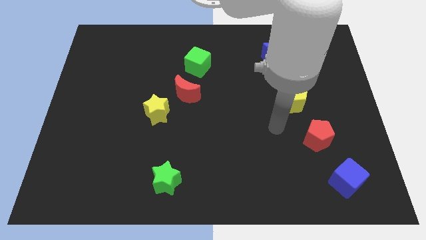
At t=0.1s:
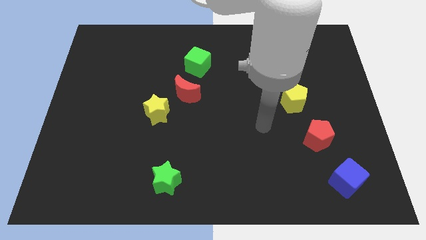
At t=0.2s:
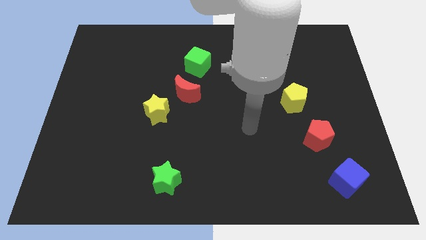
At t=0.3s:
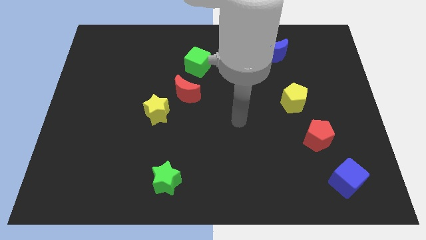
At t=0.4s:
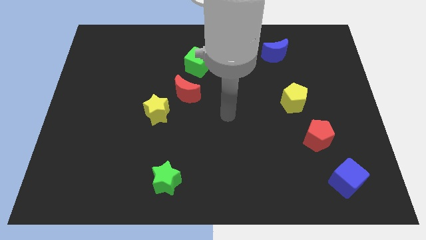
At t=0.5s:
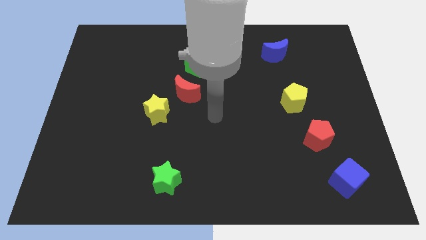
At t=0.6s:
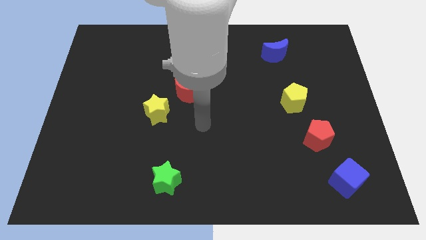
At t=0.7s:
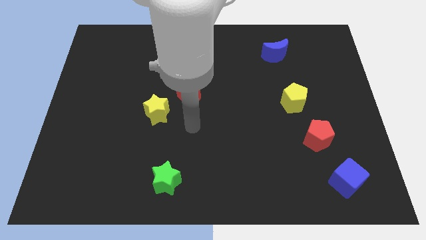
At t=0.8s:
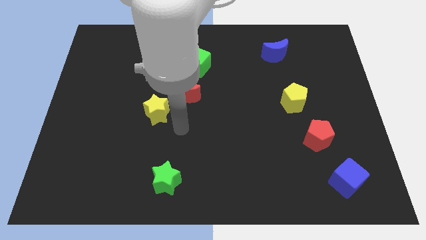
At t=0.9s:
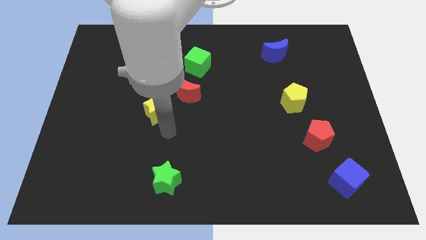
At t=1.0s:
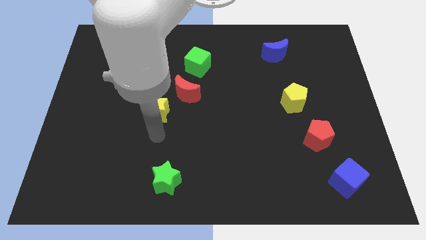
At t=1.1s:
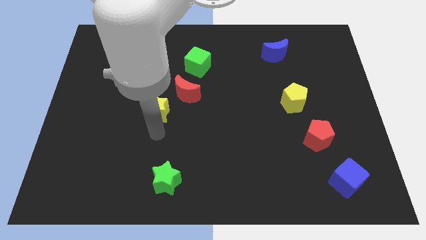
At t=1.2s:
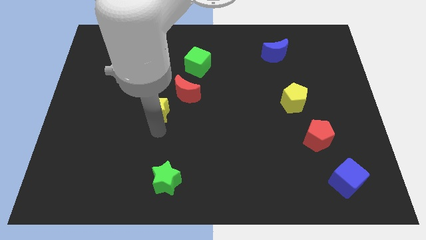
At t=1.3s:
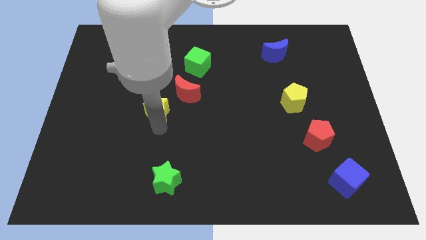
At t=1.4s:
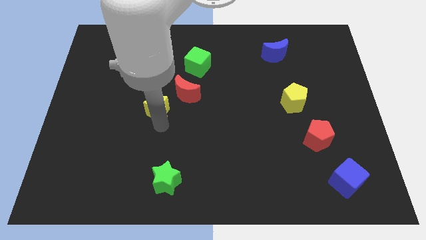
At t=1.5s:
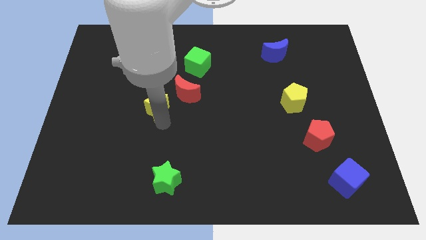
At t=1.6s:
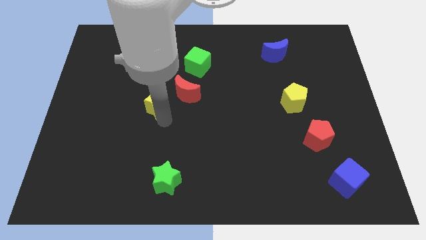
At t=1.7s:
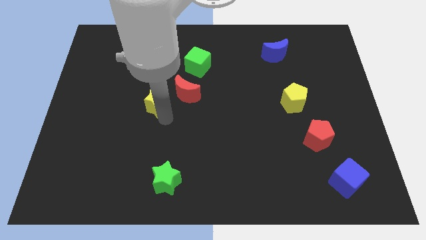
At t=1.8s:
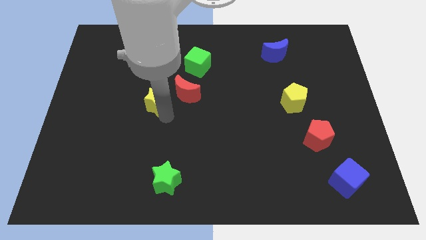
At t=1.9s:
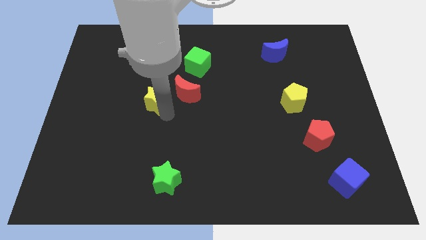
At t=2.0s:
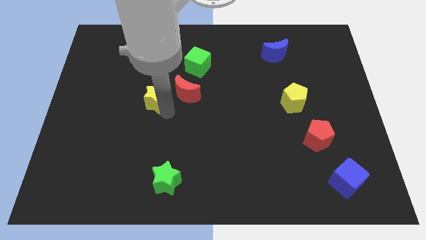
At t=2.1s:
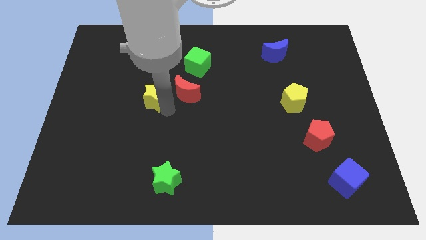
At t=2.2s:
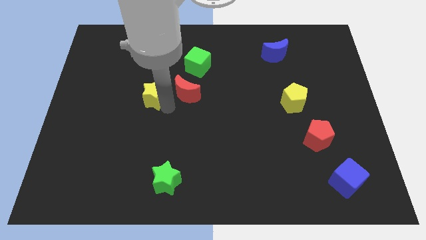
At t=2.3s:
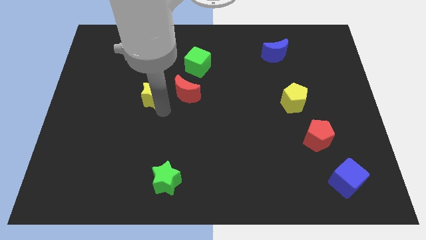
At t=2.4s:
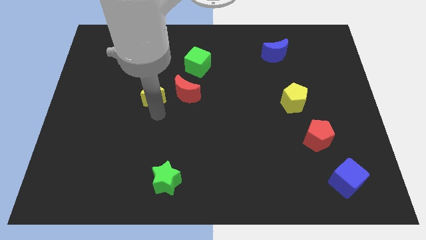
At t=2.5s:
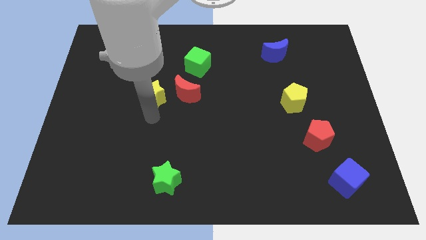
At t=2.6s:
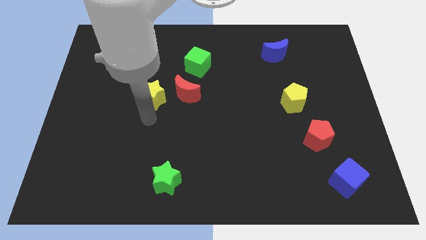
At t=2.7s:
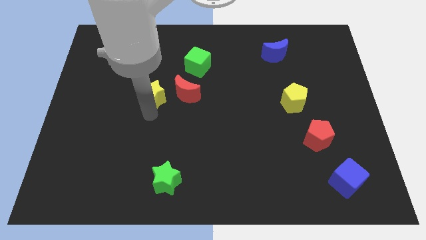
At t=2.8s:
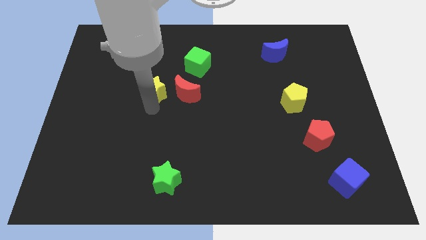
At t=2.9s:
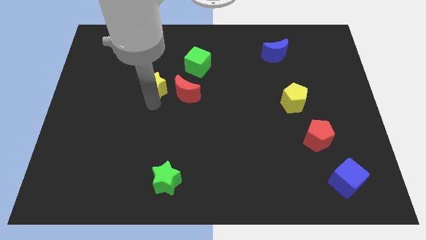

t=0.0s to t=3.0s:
push the yellow star a little bit upwards

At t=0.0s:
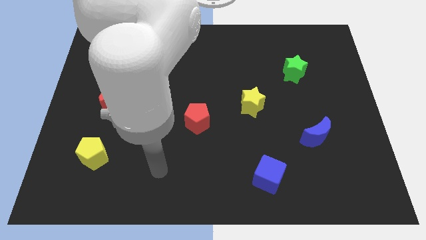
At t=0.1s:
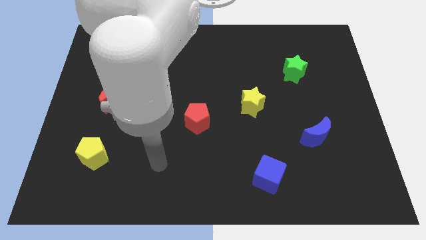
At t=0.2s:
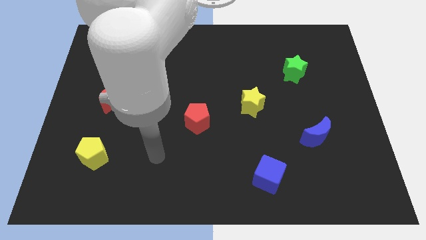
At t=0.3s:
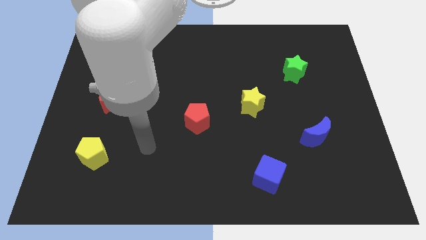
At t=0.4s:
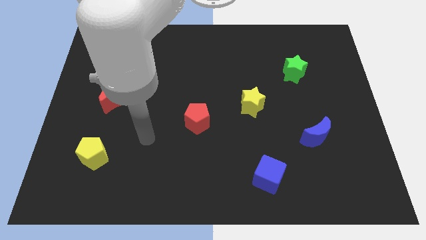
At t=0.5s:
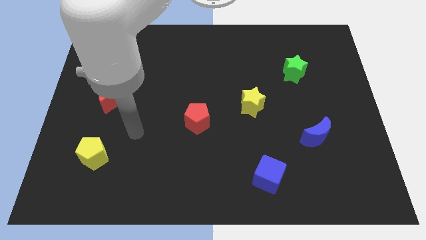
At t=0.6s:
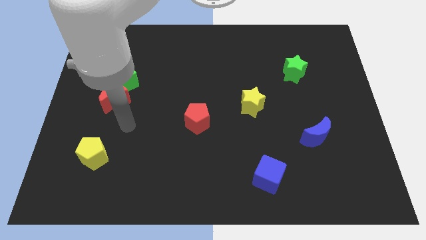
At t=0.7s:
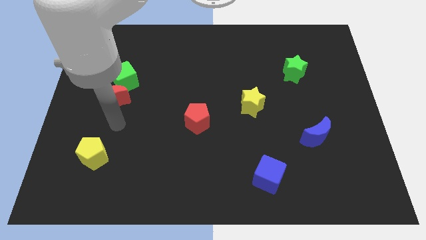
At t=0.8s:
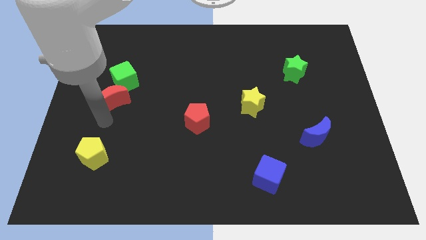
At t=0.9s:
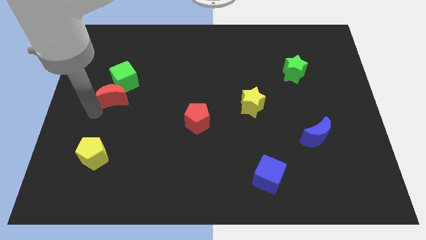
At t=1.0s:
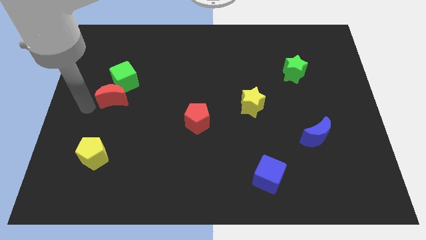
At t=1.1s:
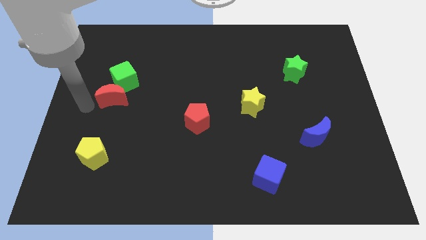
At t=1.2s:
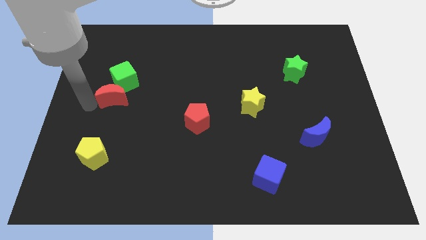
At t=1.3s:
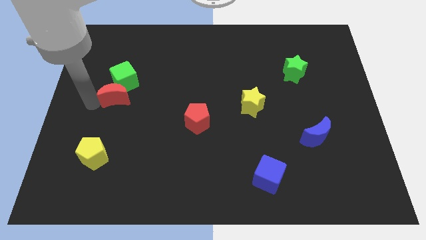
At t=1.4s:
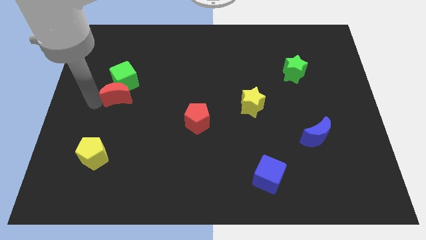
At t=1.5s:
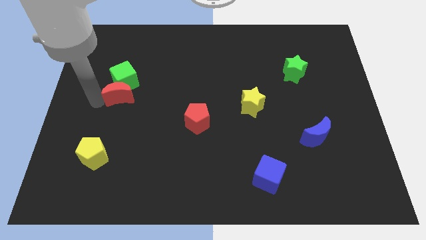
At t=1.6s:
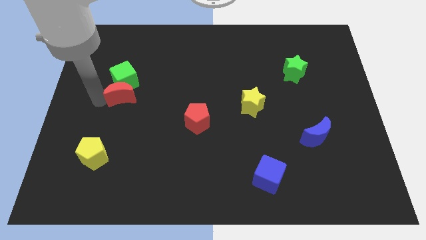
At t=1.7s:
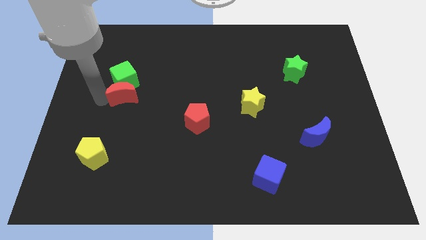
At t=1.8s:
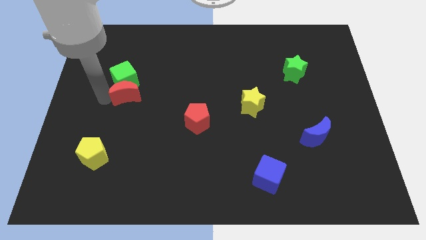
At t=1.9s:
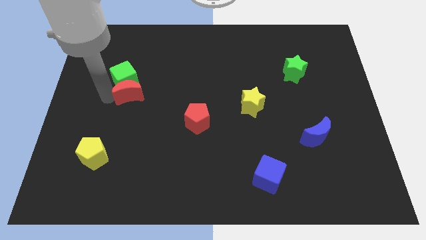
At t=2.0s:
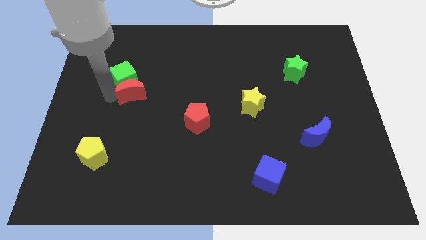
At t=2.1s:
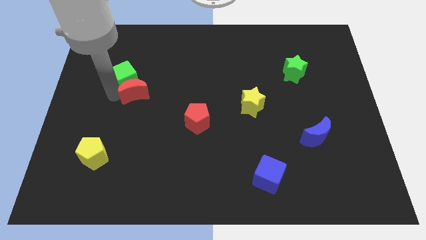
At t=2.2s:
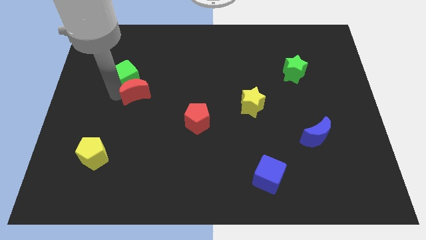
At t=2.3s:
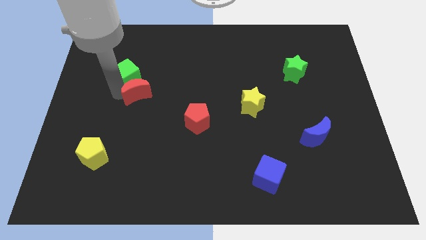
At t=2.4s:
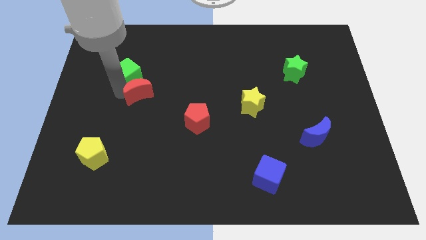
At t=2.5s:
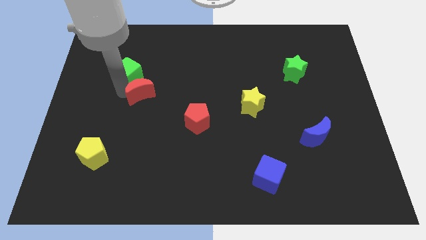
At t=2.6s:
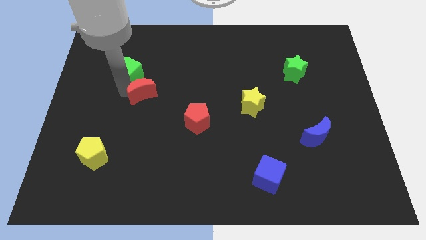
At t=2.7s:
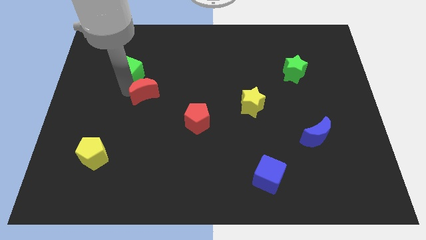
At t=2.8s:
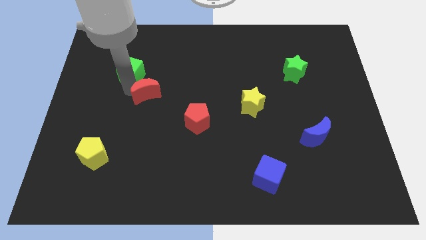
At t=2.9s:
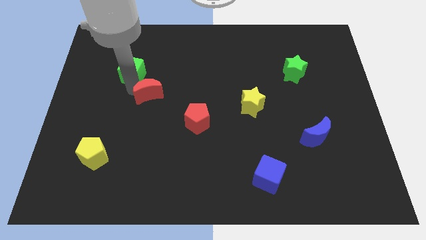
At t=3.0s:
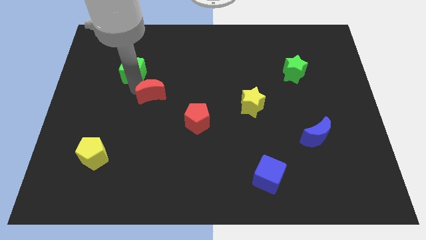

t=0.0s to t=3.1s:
slide the red moon somewhat upwards and to the right

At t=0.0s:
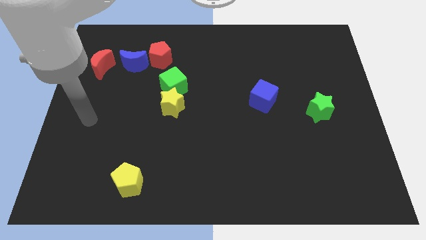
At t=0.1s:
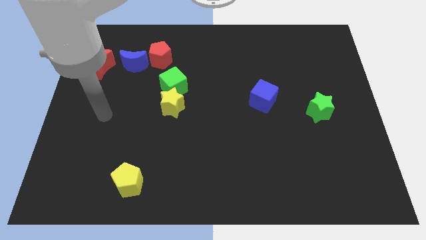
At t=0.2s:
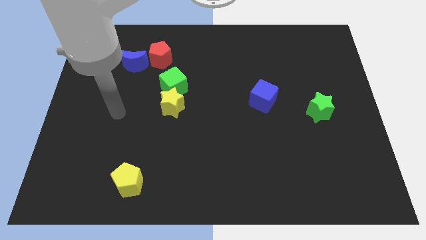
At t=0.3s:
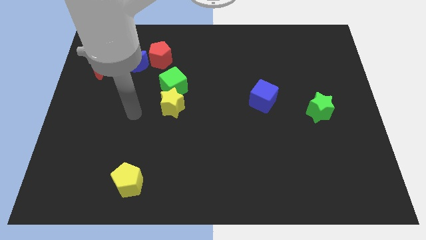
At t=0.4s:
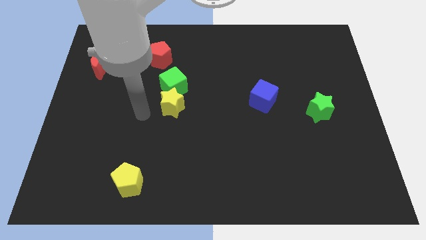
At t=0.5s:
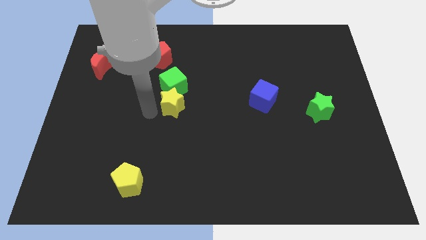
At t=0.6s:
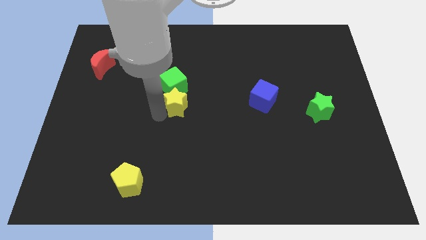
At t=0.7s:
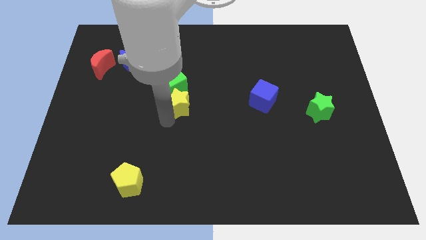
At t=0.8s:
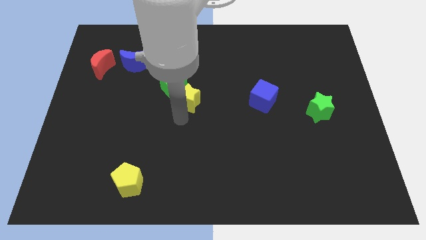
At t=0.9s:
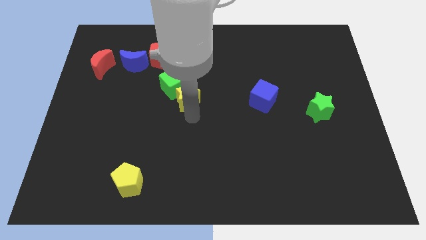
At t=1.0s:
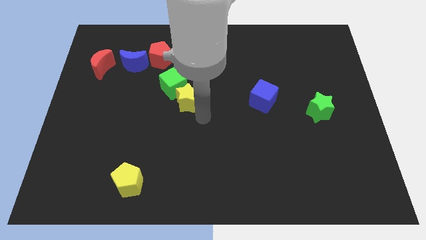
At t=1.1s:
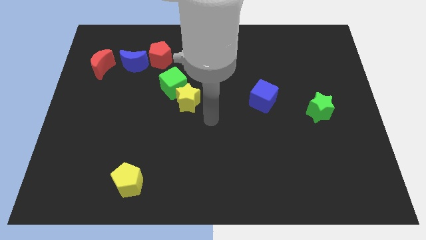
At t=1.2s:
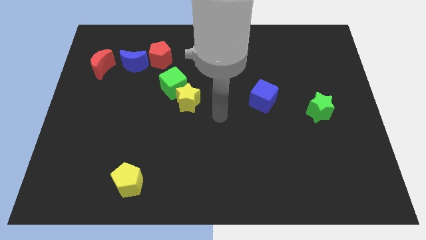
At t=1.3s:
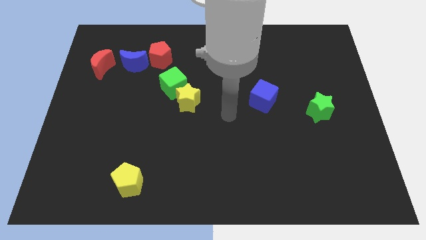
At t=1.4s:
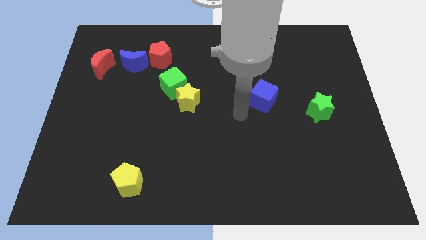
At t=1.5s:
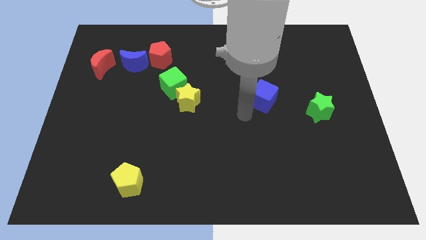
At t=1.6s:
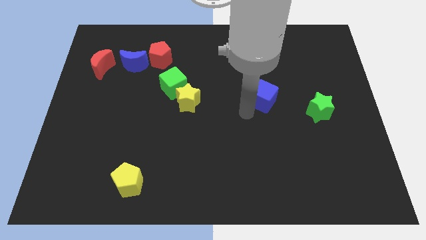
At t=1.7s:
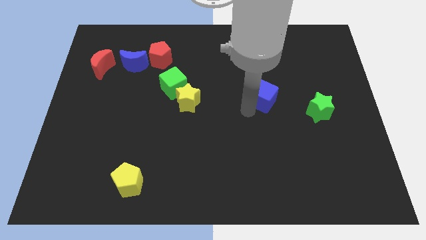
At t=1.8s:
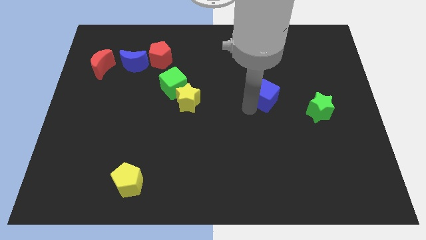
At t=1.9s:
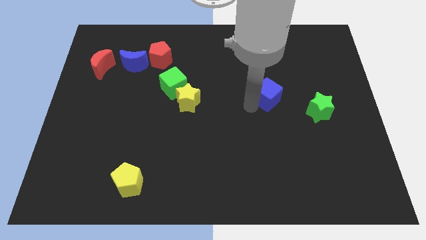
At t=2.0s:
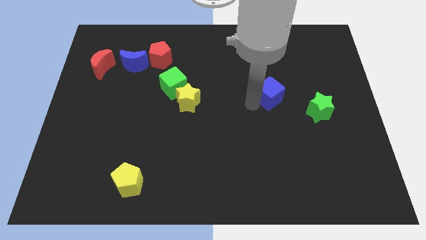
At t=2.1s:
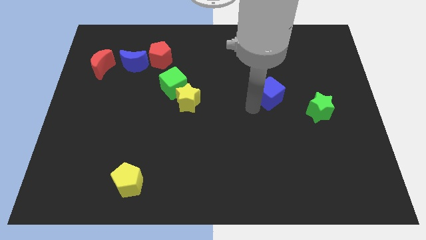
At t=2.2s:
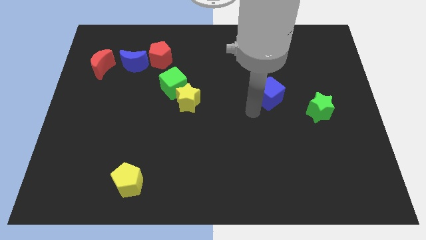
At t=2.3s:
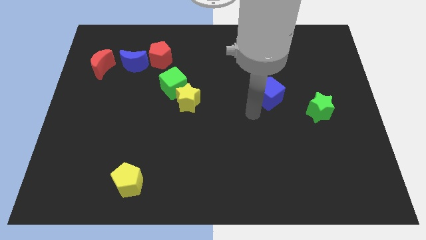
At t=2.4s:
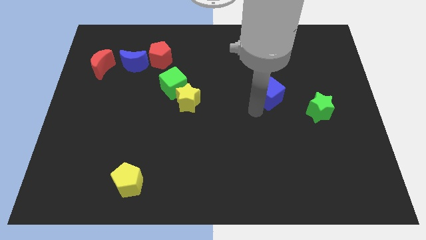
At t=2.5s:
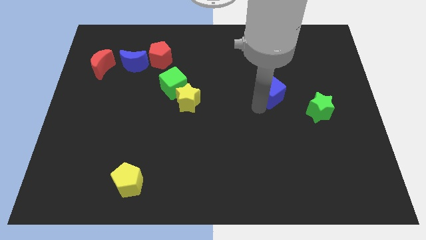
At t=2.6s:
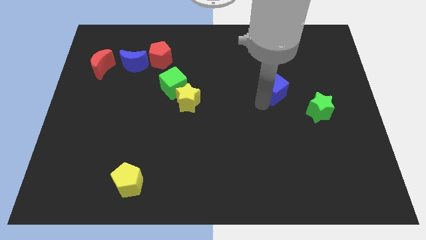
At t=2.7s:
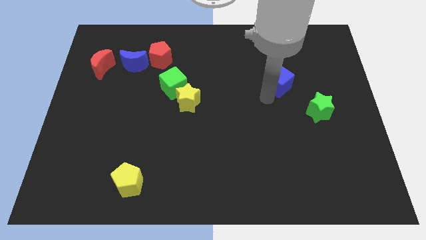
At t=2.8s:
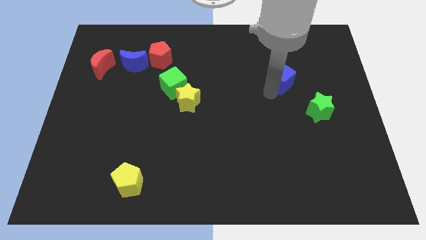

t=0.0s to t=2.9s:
move the blue cube up and right diagonally a bit
